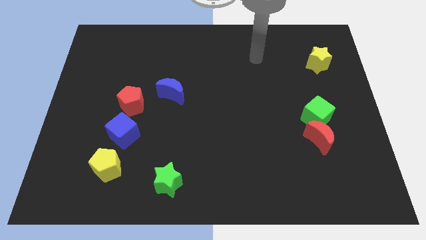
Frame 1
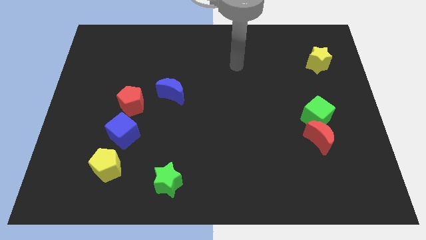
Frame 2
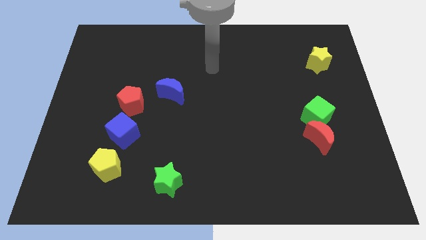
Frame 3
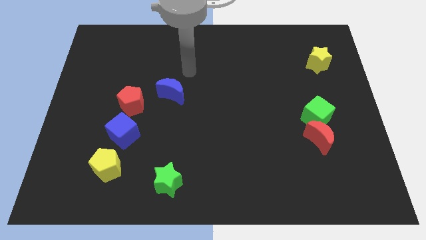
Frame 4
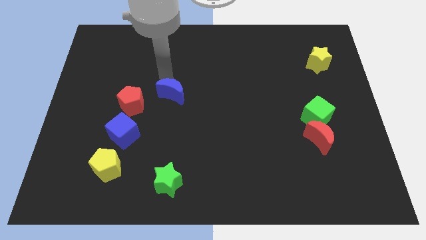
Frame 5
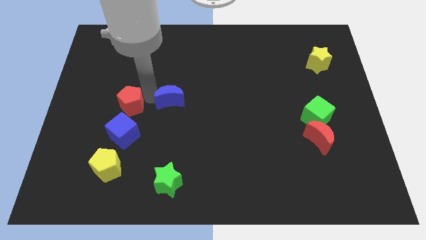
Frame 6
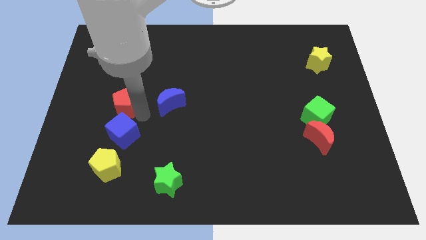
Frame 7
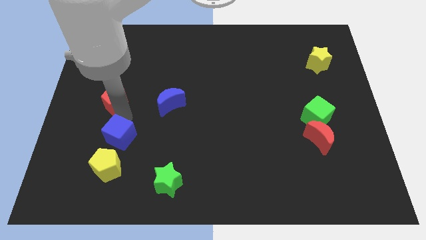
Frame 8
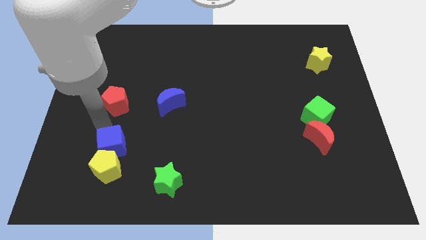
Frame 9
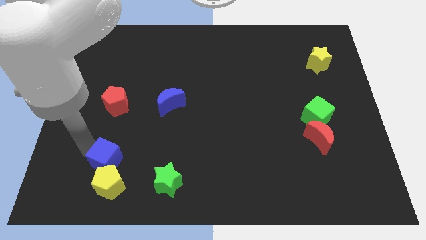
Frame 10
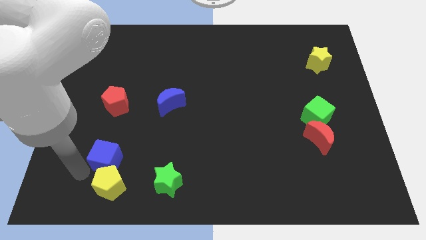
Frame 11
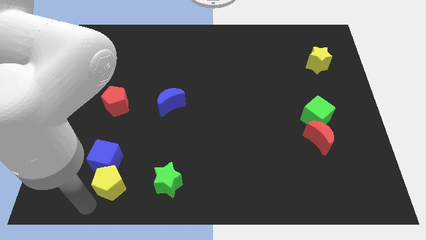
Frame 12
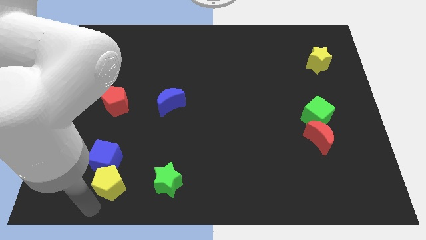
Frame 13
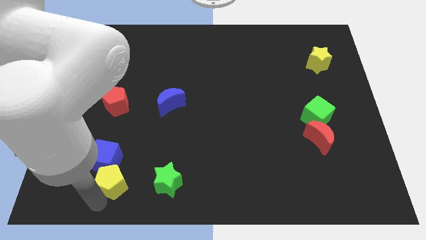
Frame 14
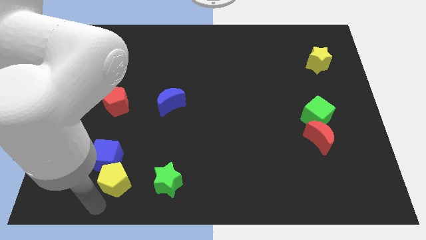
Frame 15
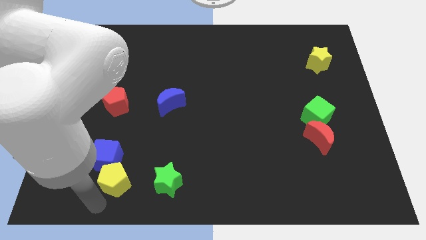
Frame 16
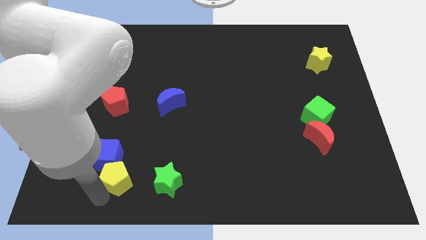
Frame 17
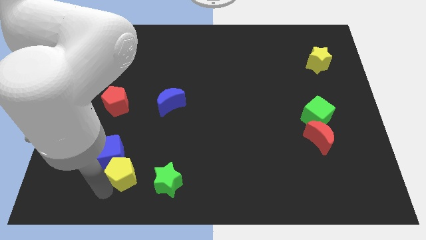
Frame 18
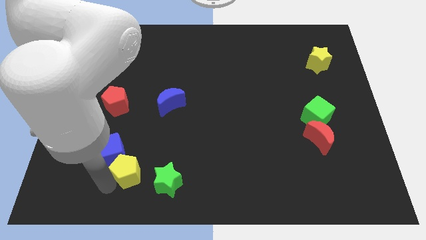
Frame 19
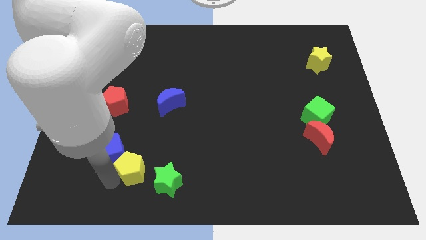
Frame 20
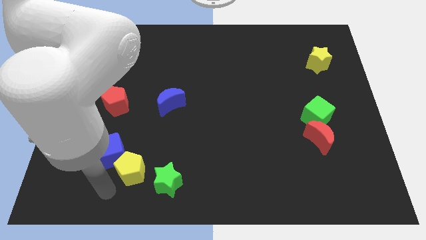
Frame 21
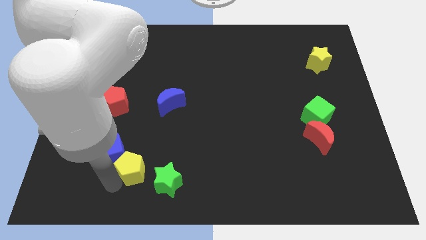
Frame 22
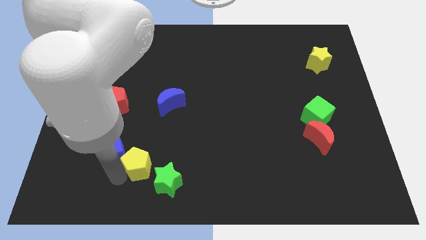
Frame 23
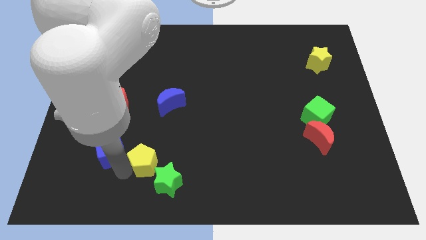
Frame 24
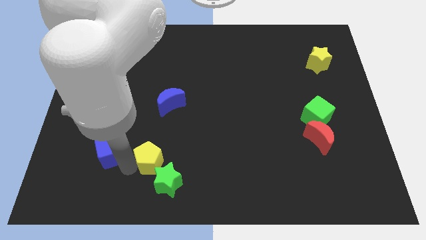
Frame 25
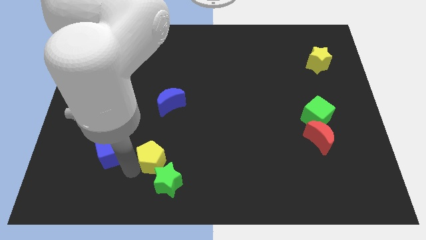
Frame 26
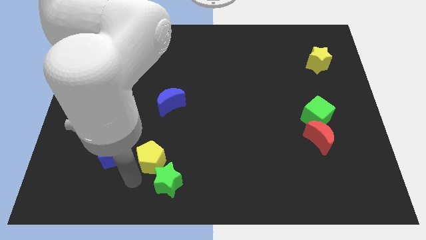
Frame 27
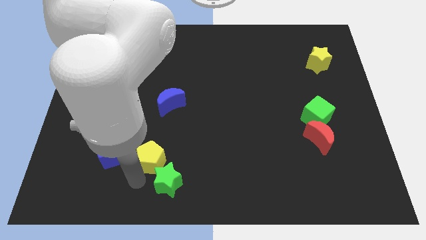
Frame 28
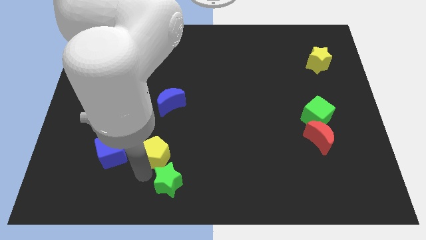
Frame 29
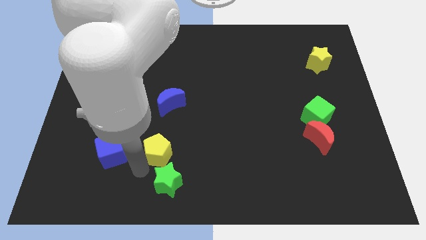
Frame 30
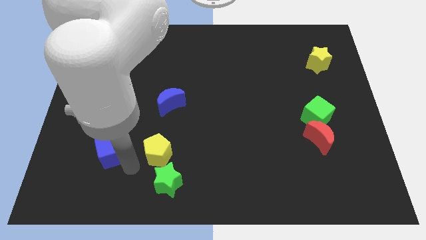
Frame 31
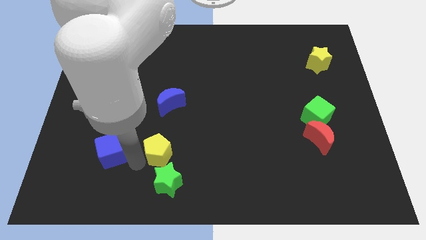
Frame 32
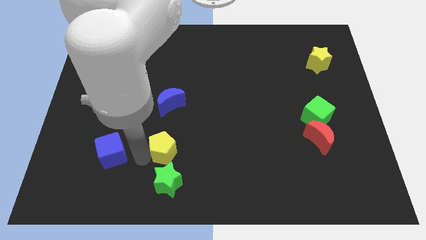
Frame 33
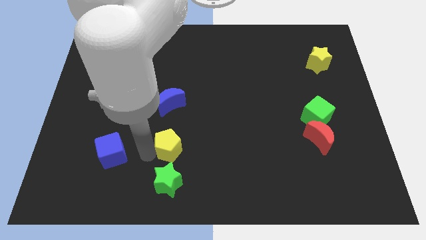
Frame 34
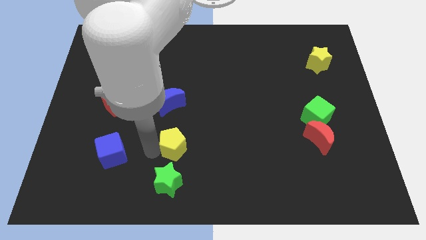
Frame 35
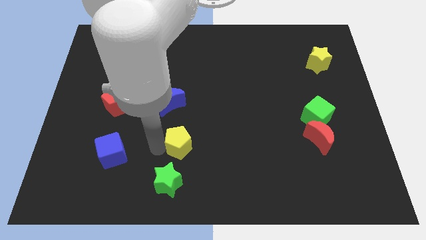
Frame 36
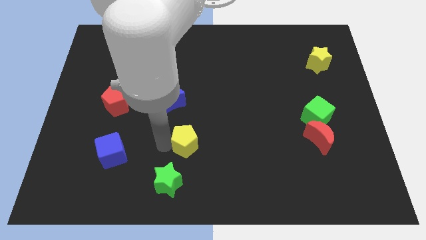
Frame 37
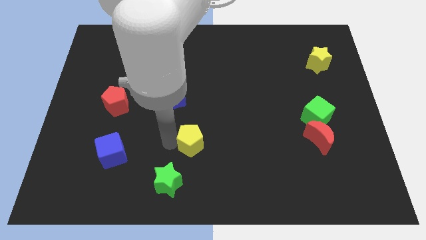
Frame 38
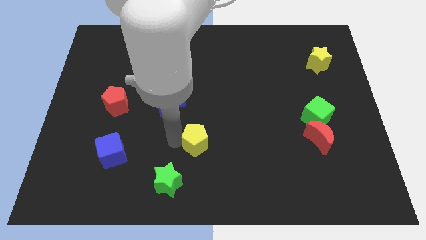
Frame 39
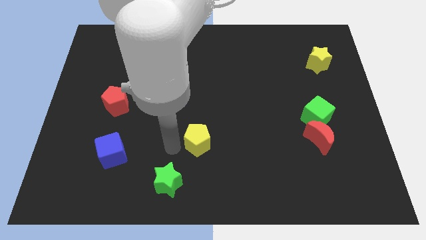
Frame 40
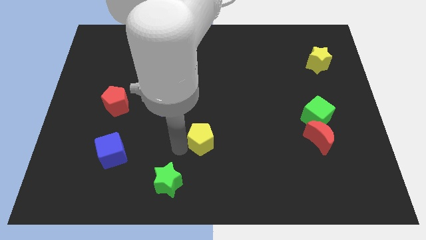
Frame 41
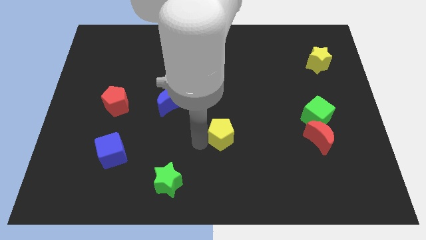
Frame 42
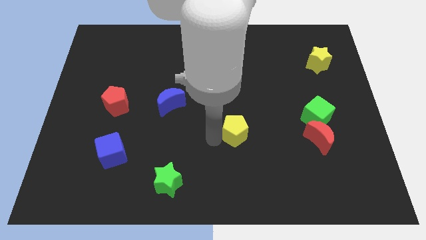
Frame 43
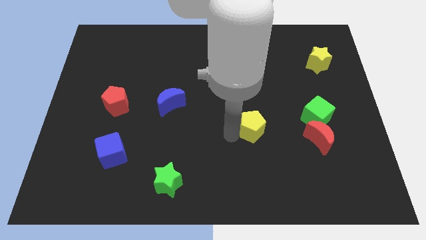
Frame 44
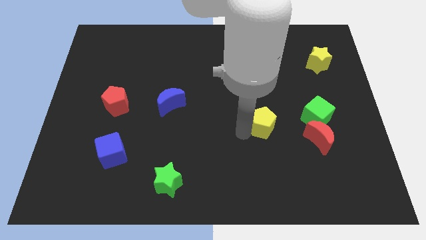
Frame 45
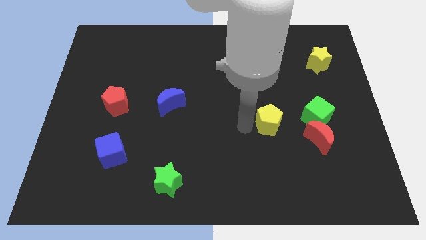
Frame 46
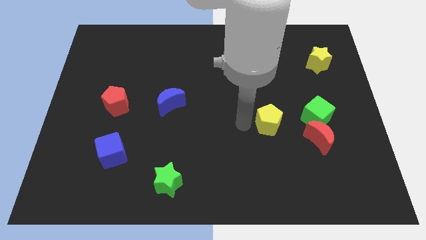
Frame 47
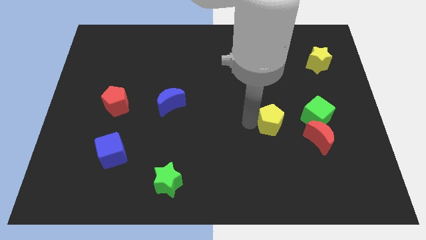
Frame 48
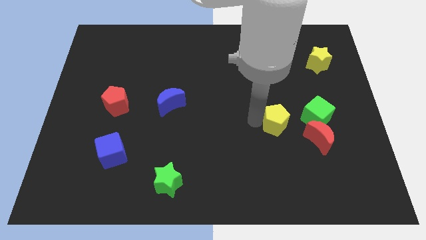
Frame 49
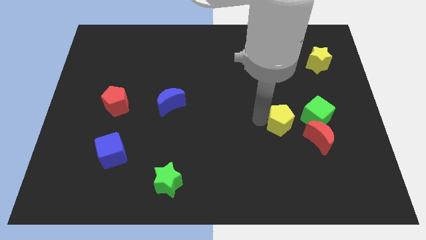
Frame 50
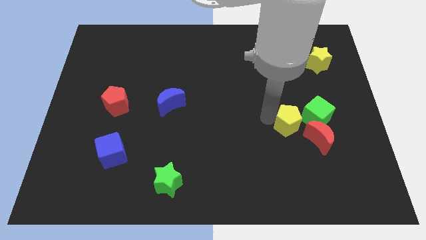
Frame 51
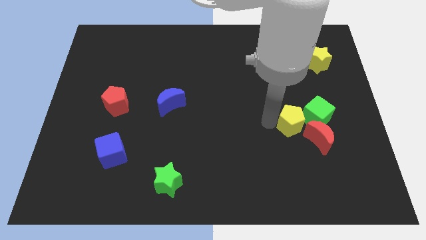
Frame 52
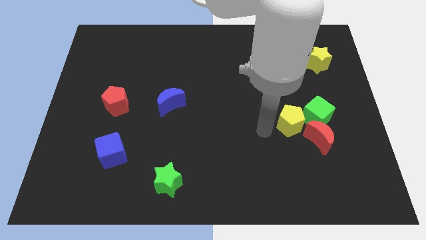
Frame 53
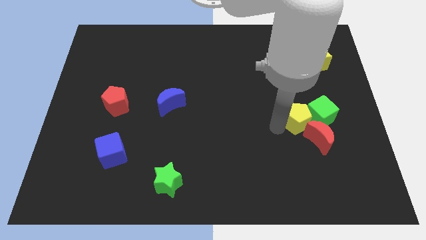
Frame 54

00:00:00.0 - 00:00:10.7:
push the yellow pentagon to the green cube

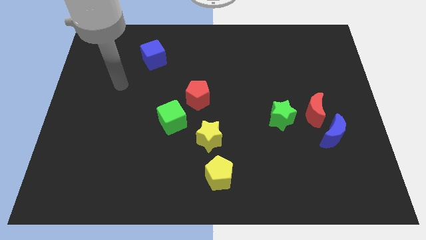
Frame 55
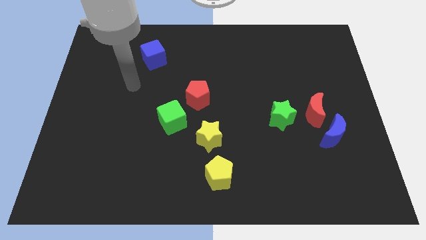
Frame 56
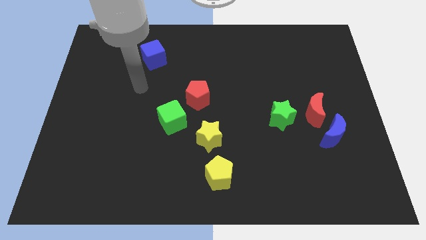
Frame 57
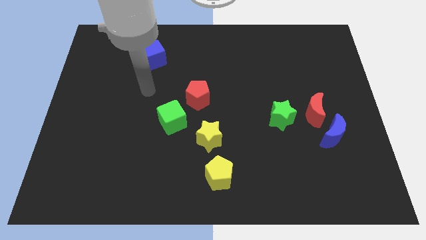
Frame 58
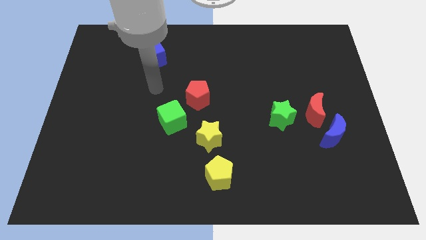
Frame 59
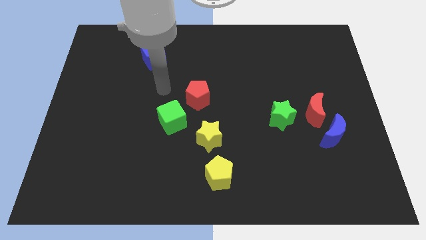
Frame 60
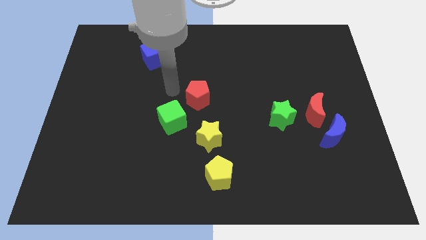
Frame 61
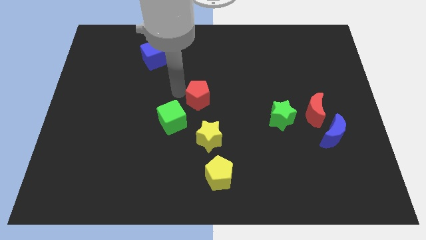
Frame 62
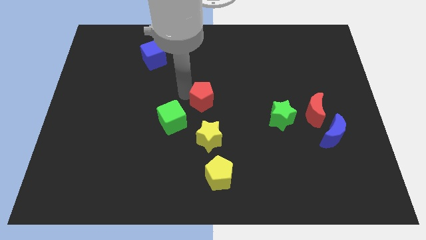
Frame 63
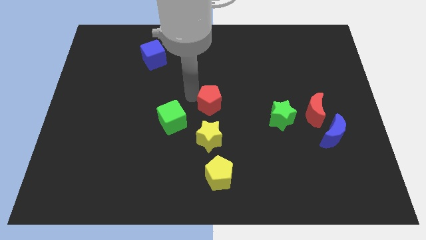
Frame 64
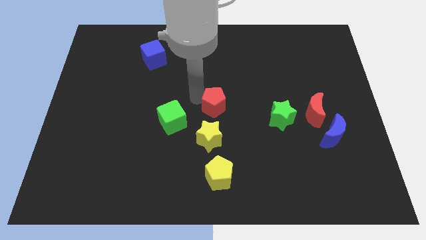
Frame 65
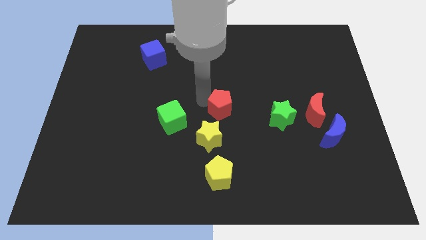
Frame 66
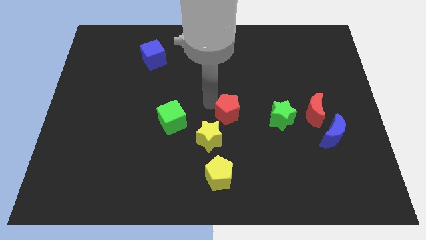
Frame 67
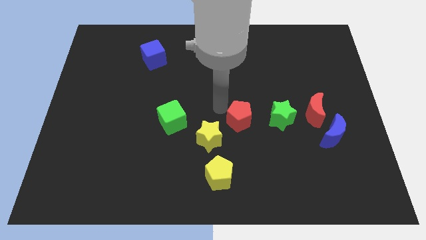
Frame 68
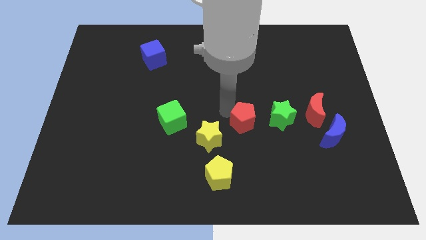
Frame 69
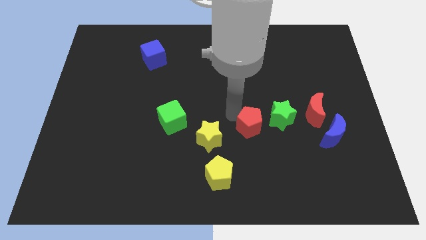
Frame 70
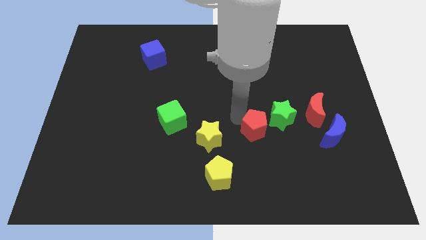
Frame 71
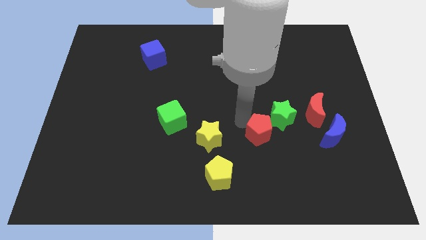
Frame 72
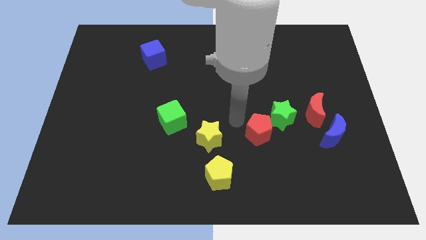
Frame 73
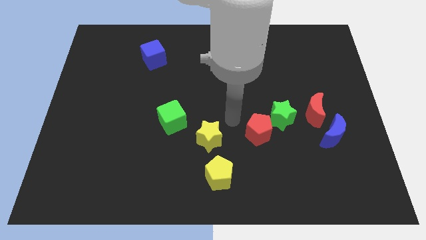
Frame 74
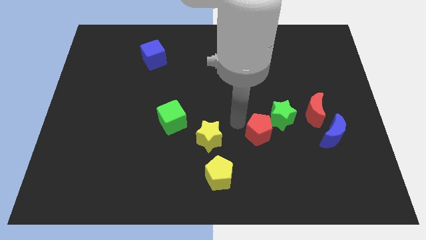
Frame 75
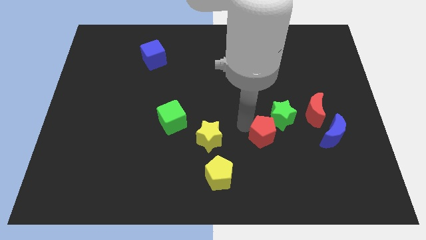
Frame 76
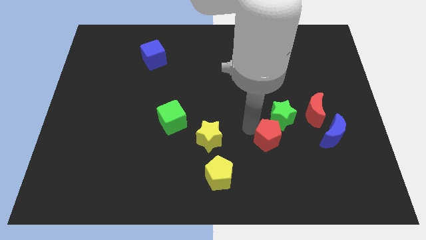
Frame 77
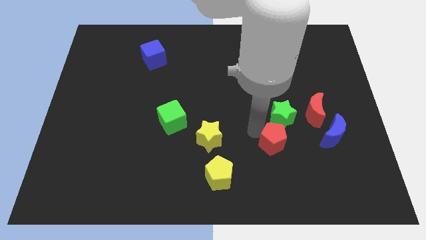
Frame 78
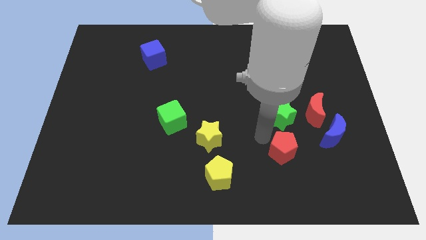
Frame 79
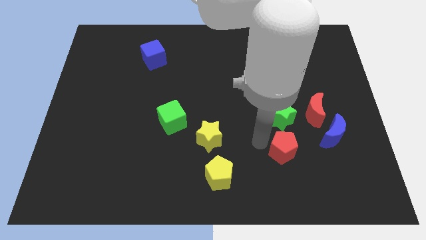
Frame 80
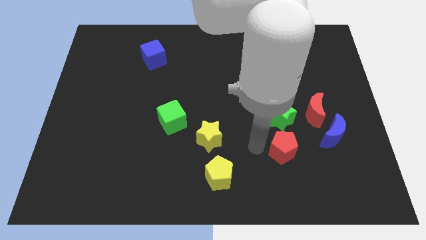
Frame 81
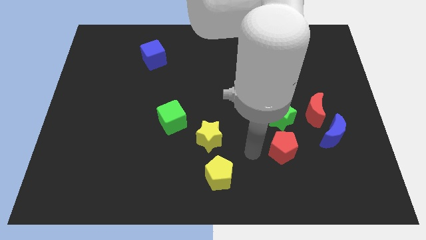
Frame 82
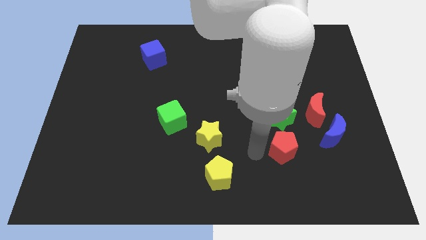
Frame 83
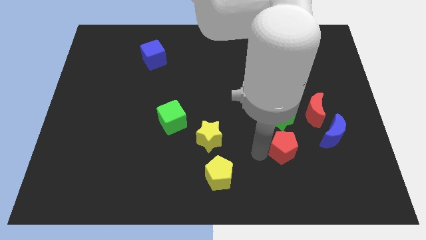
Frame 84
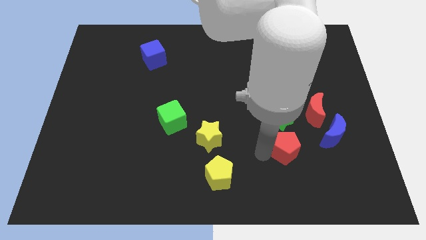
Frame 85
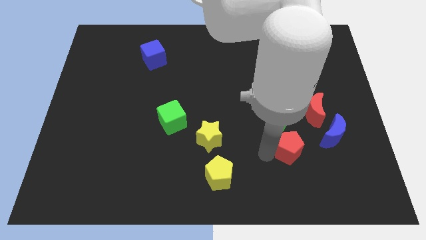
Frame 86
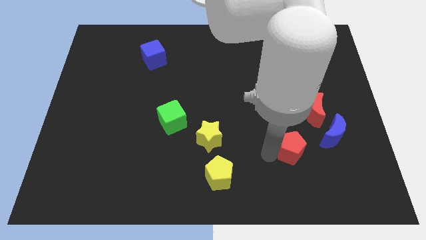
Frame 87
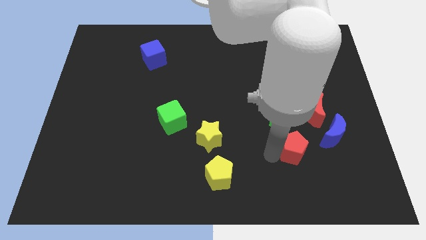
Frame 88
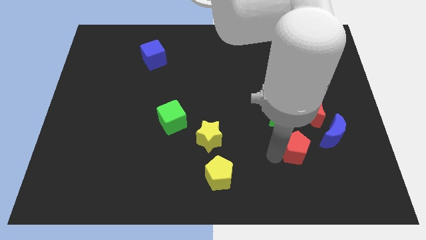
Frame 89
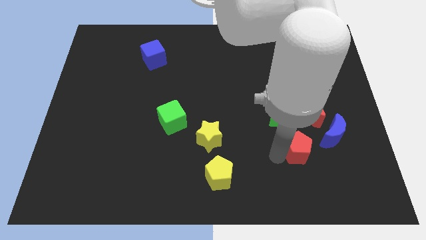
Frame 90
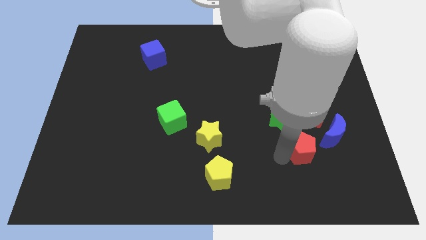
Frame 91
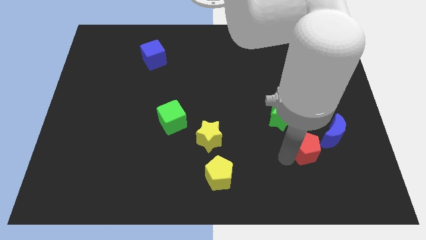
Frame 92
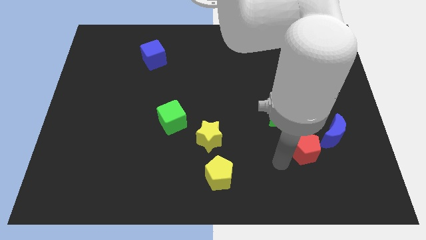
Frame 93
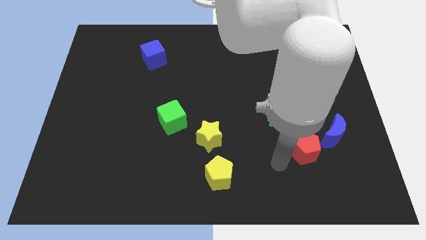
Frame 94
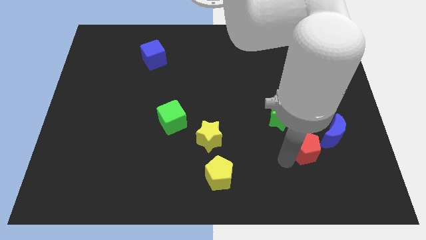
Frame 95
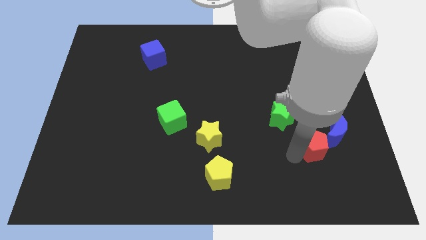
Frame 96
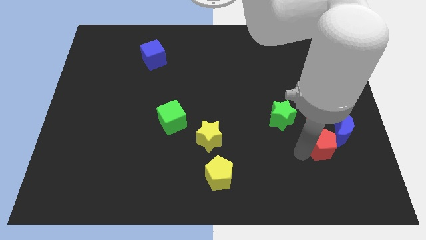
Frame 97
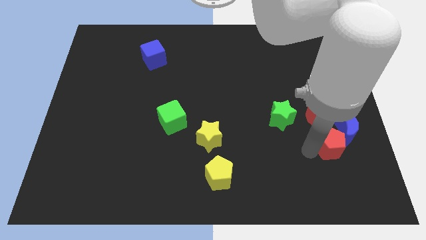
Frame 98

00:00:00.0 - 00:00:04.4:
push the red pentagon close to the blue moon
